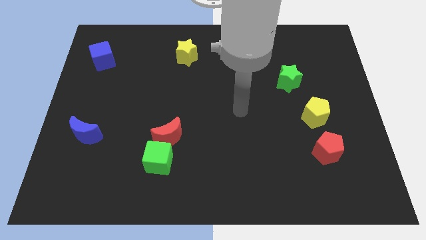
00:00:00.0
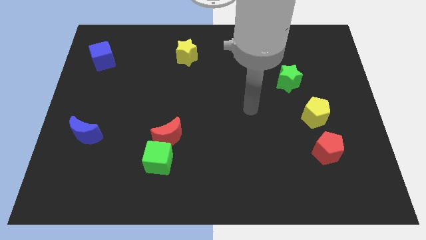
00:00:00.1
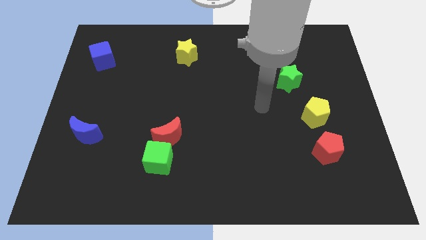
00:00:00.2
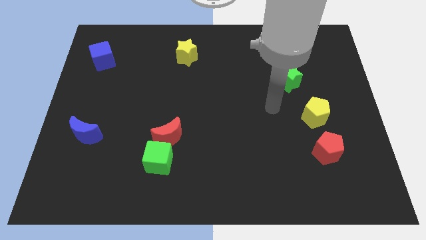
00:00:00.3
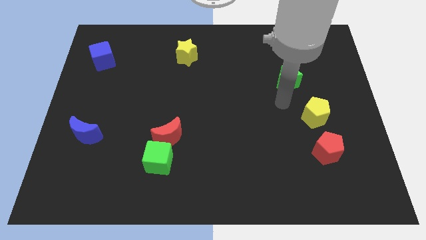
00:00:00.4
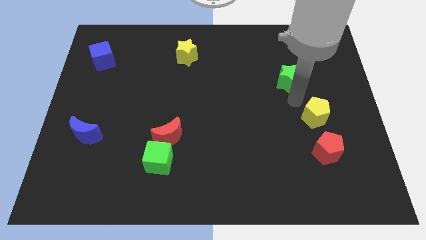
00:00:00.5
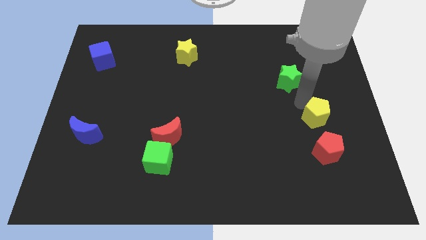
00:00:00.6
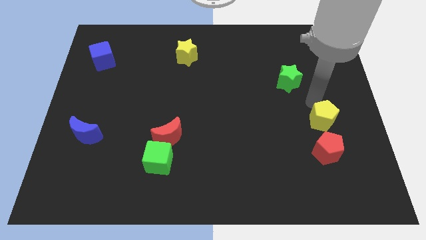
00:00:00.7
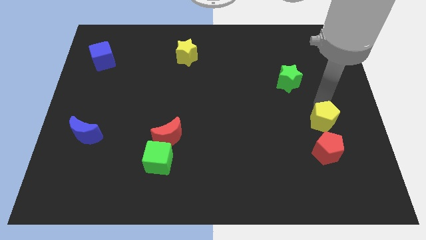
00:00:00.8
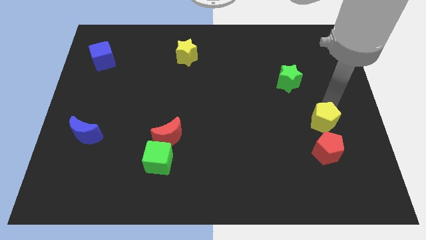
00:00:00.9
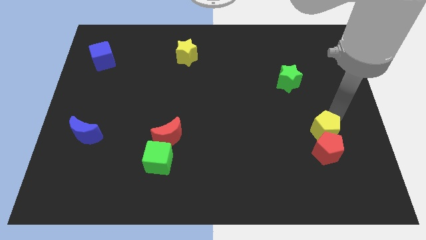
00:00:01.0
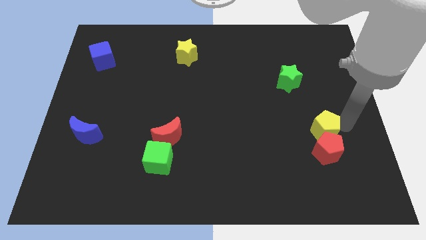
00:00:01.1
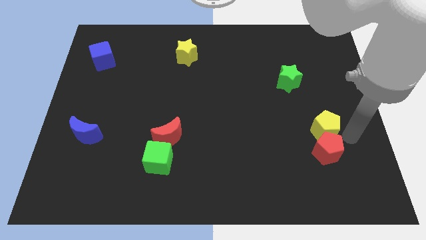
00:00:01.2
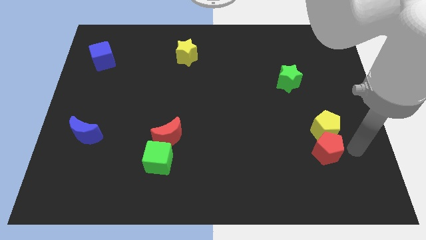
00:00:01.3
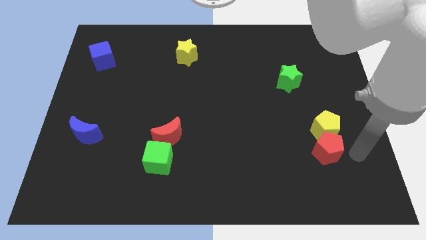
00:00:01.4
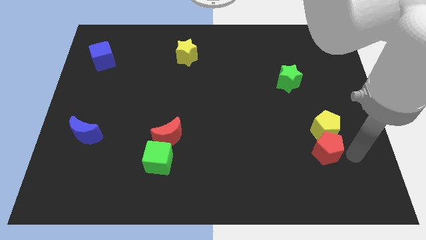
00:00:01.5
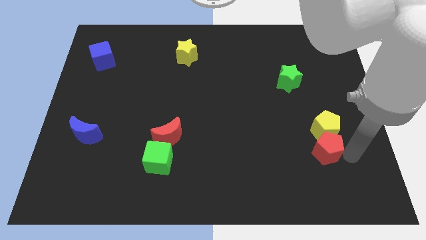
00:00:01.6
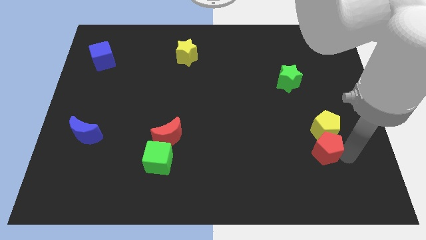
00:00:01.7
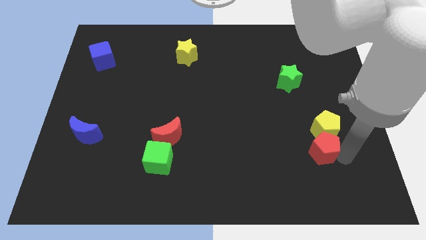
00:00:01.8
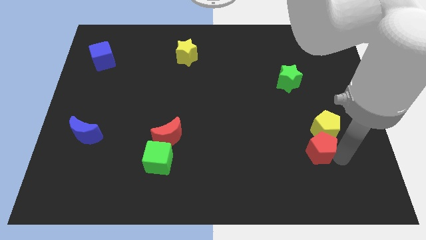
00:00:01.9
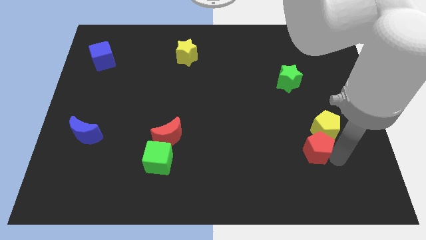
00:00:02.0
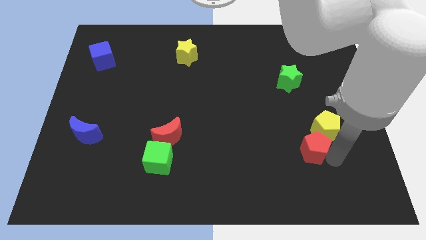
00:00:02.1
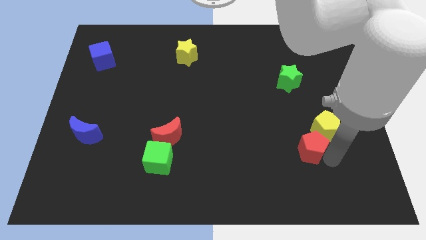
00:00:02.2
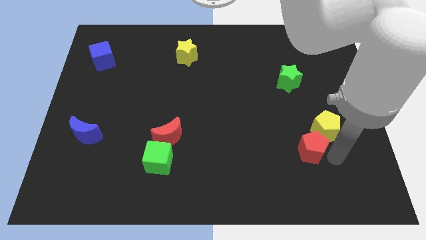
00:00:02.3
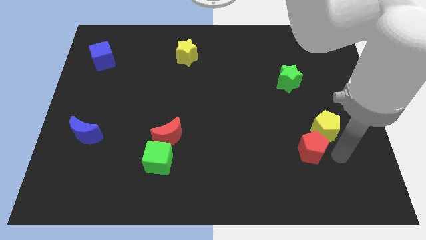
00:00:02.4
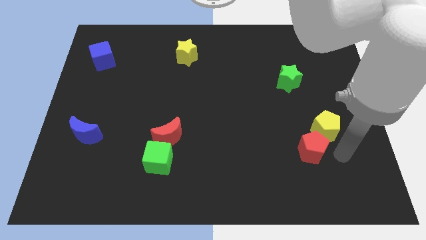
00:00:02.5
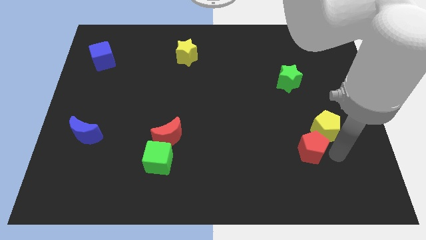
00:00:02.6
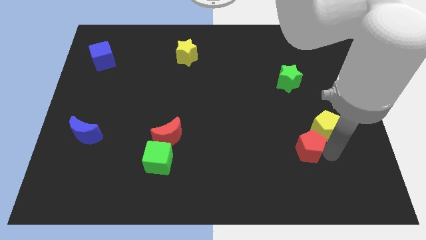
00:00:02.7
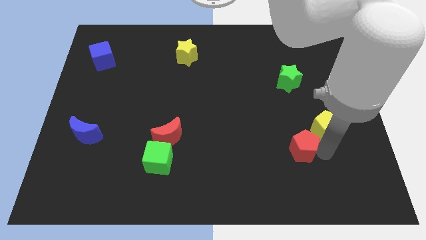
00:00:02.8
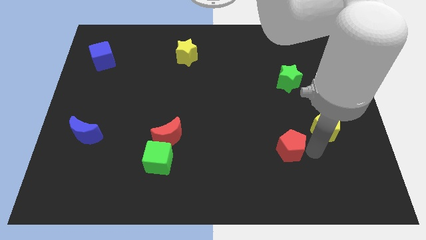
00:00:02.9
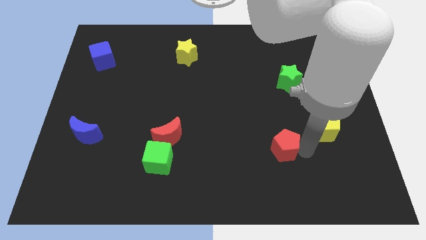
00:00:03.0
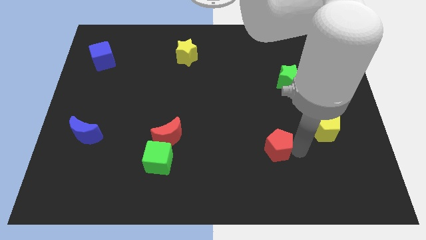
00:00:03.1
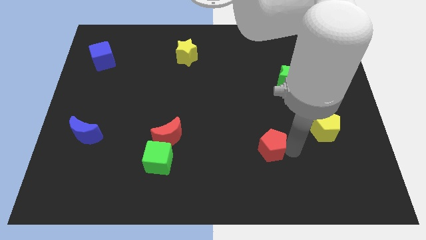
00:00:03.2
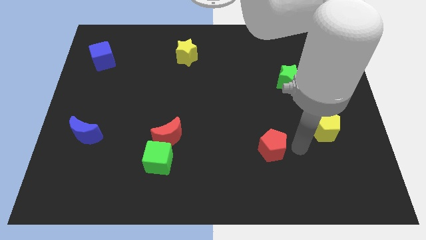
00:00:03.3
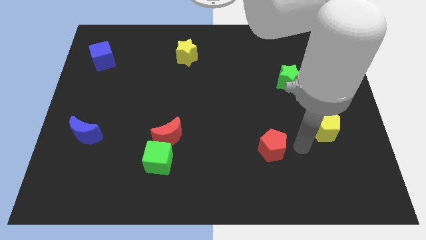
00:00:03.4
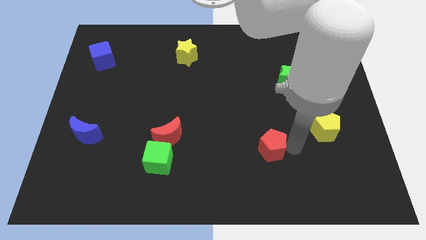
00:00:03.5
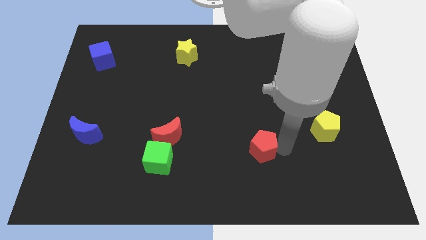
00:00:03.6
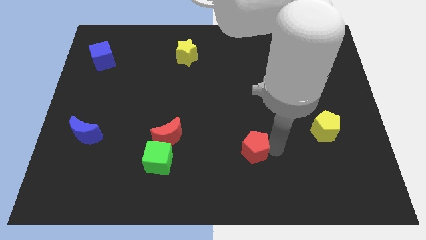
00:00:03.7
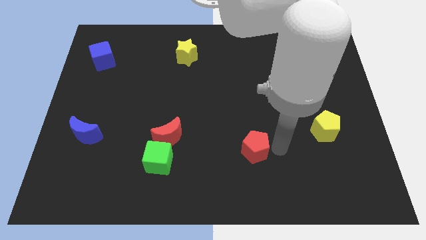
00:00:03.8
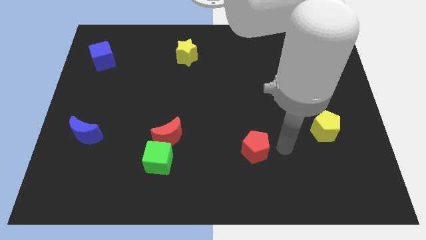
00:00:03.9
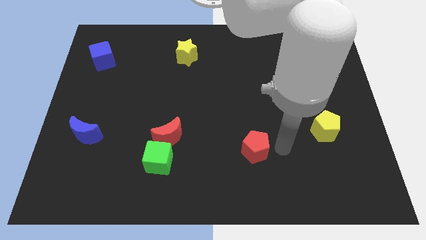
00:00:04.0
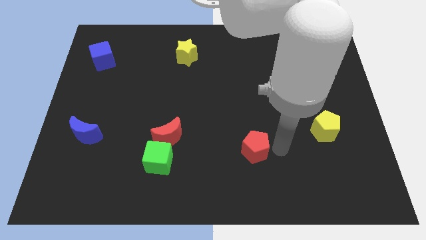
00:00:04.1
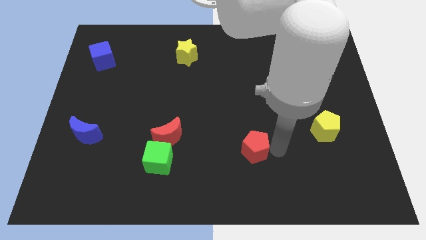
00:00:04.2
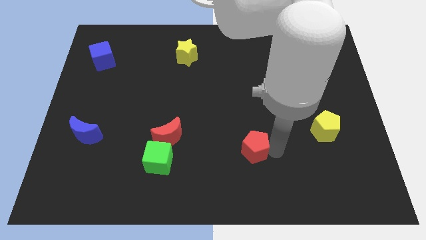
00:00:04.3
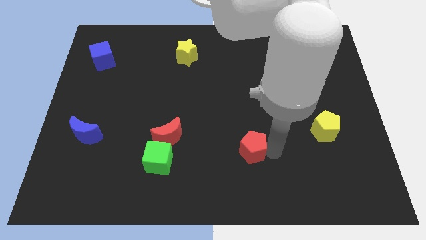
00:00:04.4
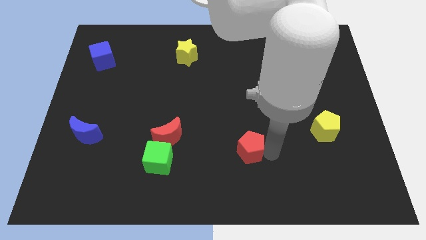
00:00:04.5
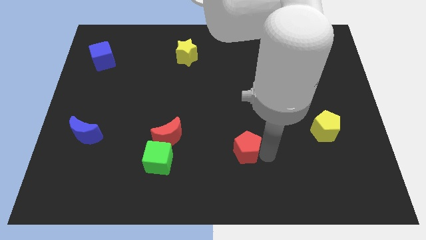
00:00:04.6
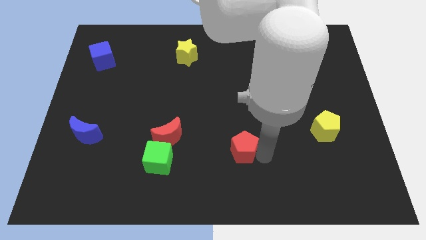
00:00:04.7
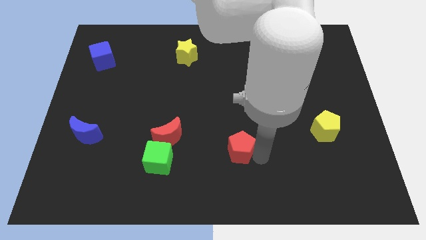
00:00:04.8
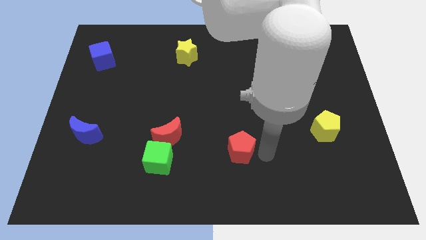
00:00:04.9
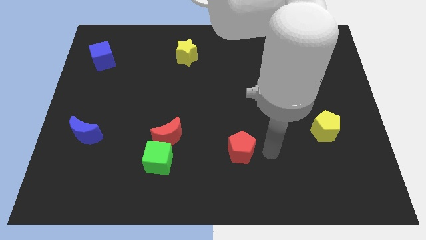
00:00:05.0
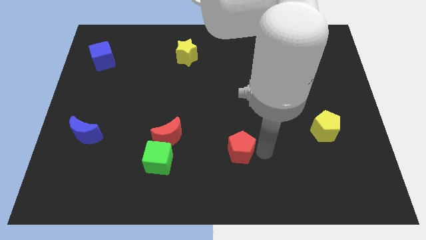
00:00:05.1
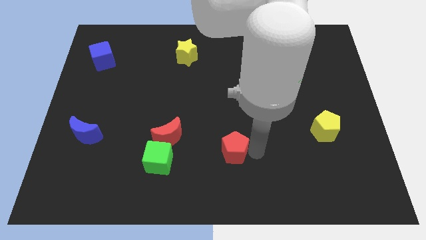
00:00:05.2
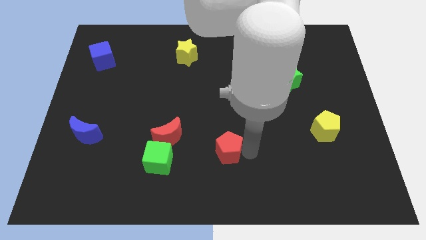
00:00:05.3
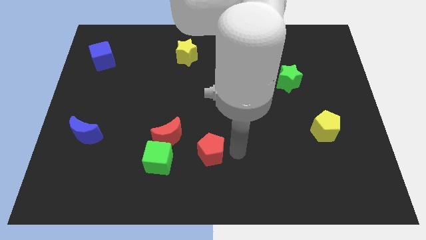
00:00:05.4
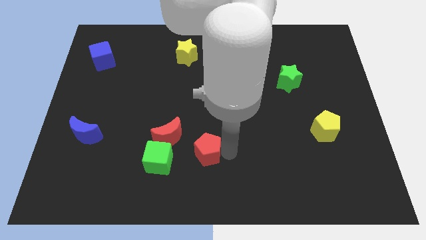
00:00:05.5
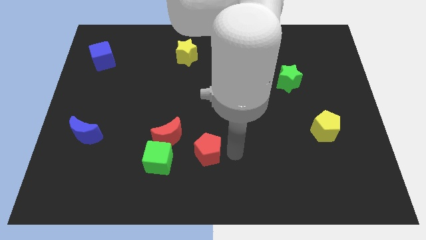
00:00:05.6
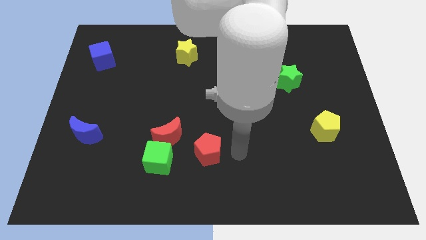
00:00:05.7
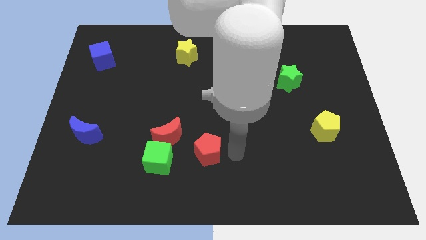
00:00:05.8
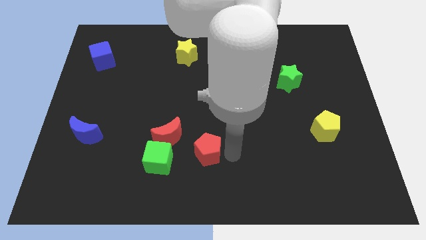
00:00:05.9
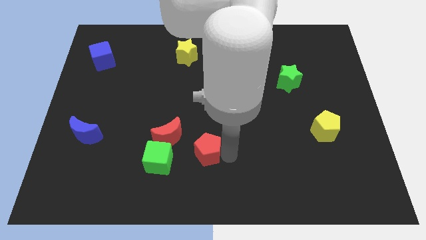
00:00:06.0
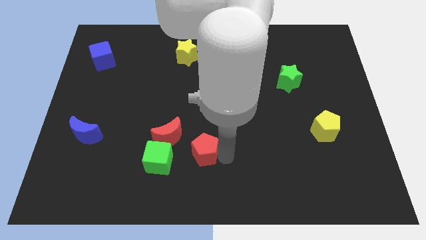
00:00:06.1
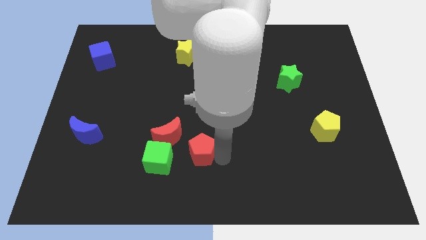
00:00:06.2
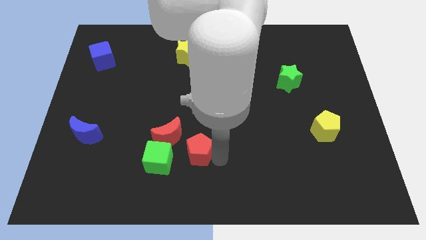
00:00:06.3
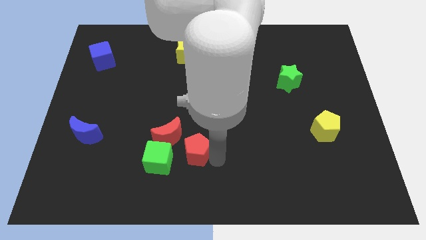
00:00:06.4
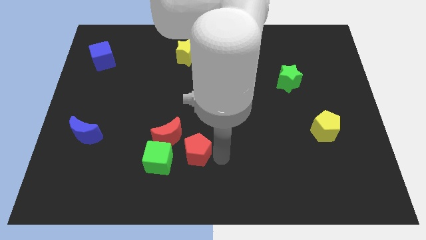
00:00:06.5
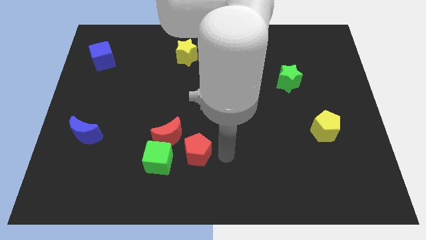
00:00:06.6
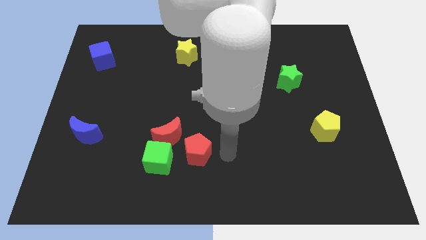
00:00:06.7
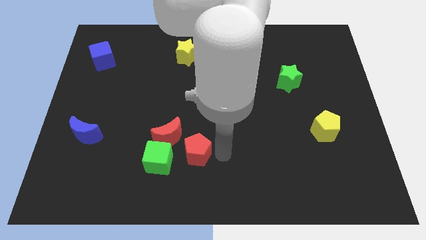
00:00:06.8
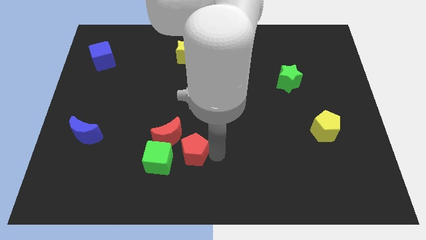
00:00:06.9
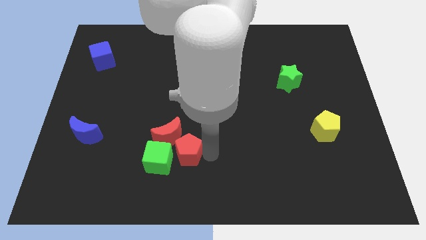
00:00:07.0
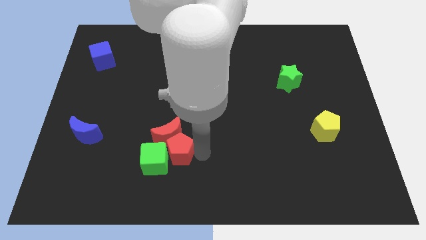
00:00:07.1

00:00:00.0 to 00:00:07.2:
move the red pentagon to the green cube

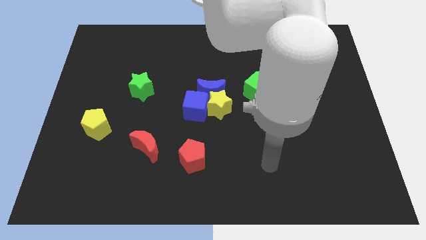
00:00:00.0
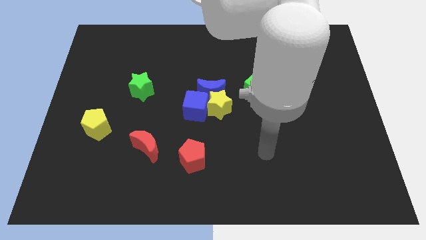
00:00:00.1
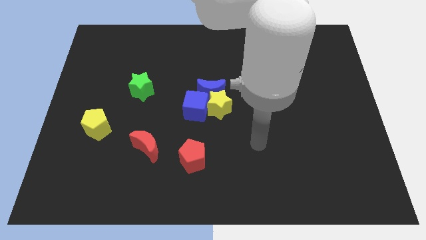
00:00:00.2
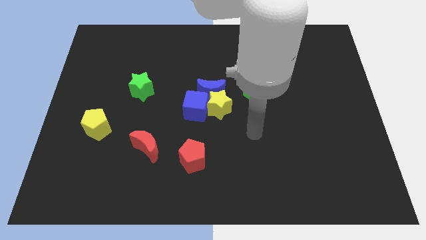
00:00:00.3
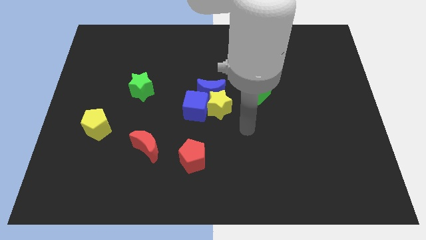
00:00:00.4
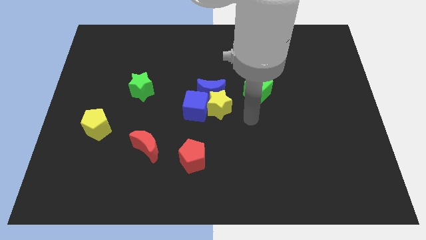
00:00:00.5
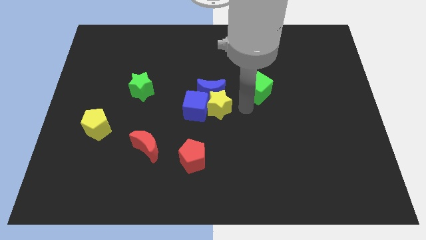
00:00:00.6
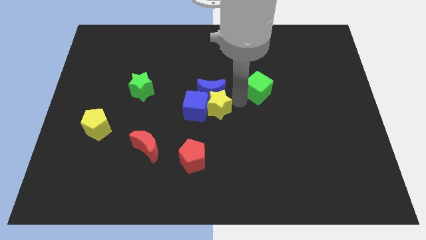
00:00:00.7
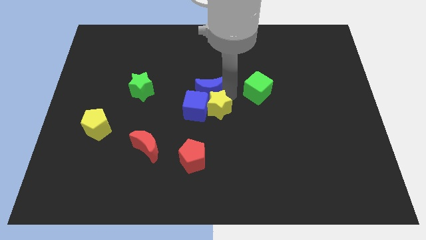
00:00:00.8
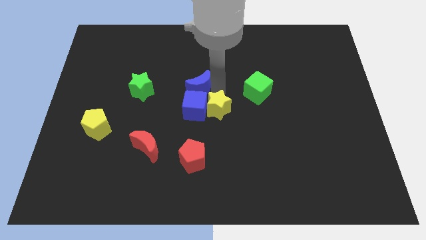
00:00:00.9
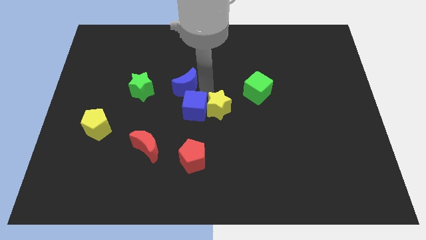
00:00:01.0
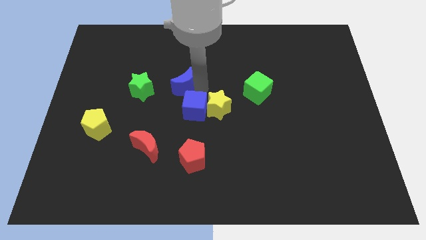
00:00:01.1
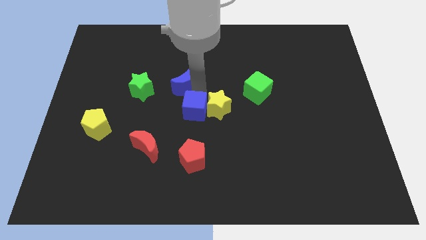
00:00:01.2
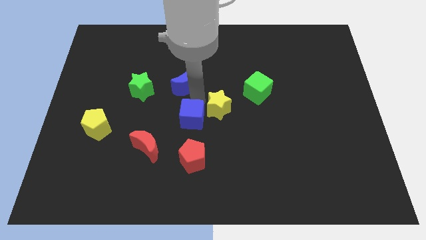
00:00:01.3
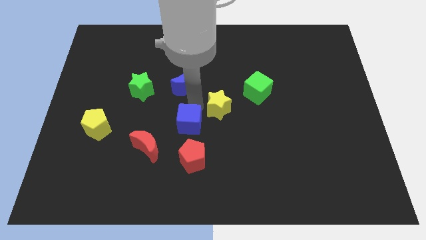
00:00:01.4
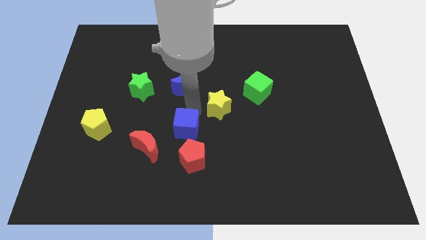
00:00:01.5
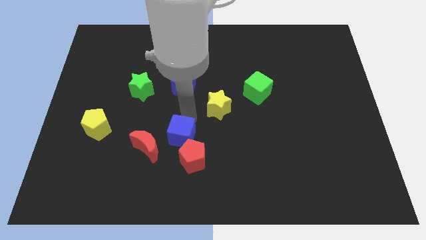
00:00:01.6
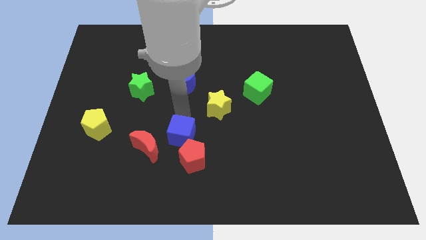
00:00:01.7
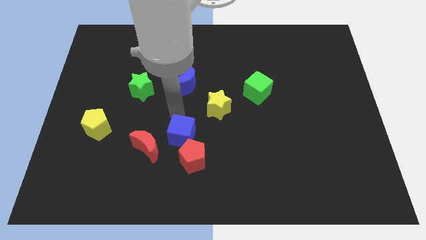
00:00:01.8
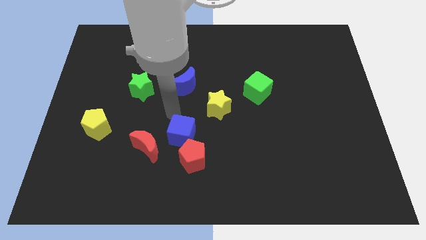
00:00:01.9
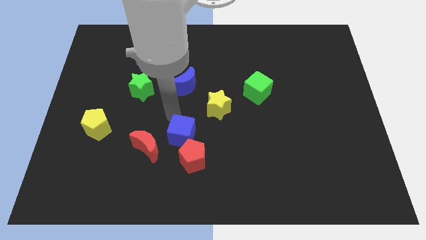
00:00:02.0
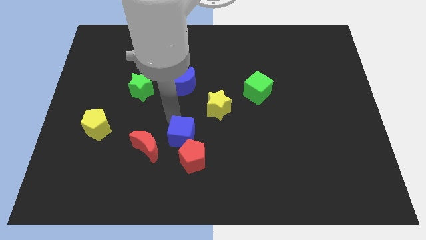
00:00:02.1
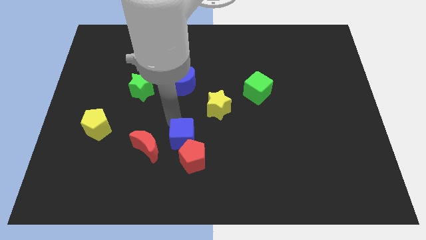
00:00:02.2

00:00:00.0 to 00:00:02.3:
push the blue cube towards the red pentagon
